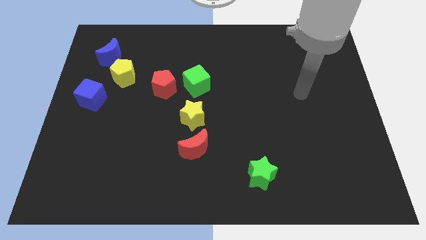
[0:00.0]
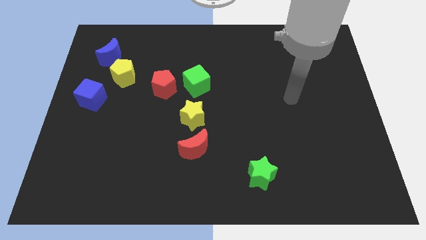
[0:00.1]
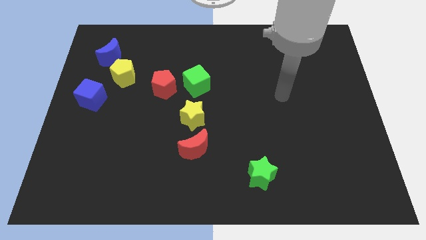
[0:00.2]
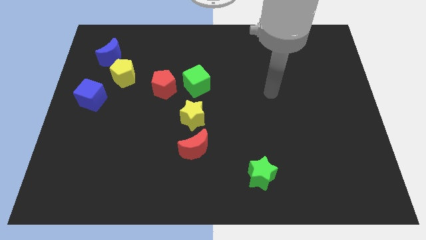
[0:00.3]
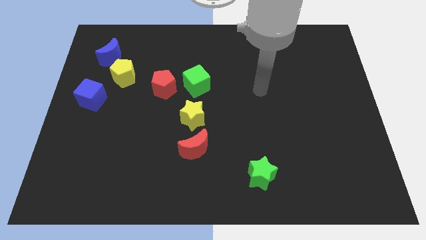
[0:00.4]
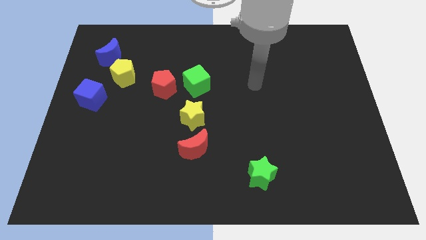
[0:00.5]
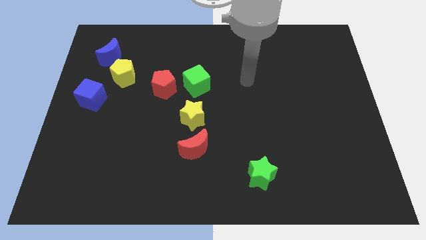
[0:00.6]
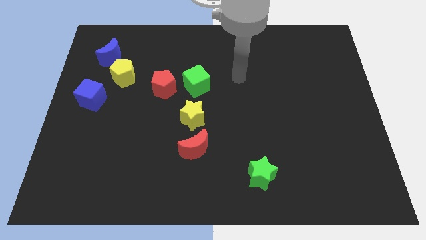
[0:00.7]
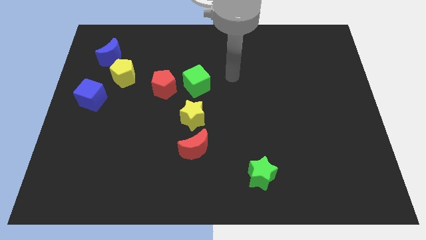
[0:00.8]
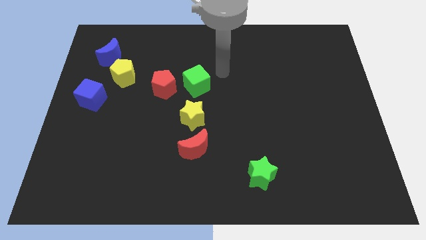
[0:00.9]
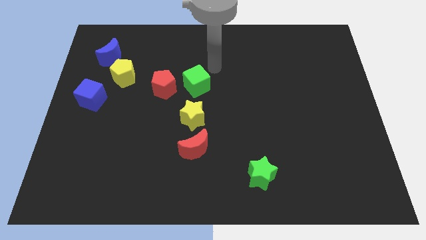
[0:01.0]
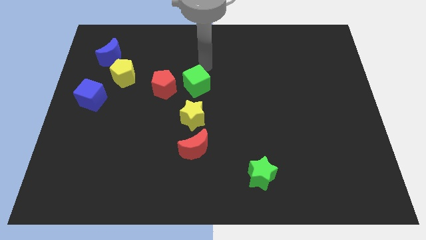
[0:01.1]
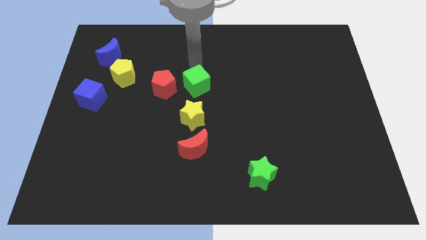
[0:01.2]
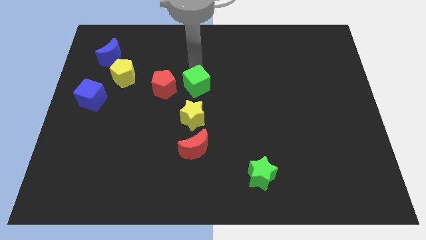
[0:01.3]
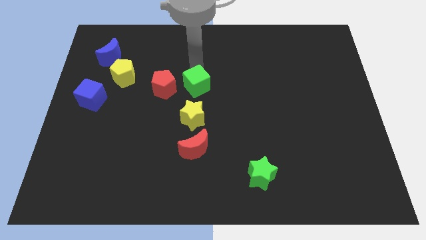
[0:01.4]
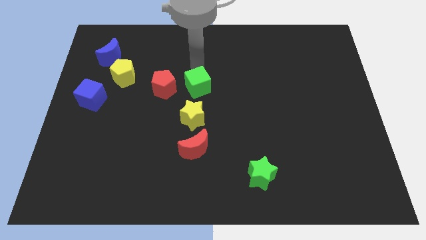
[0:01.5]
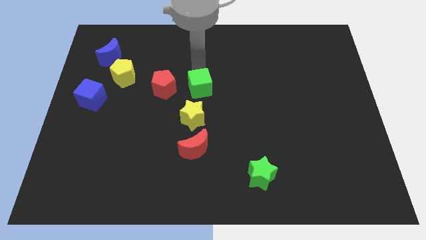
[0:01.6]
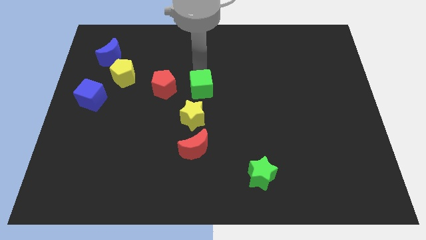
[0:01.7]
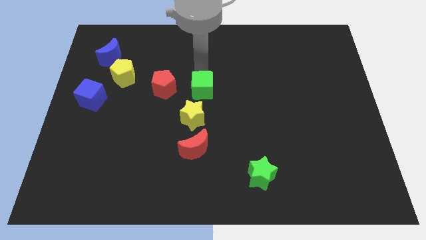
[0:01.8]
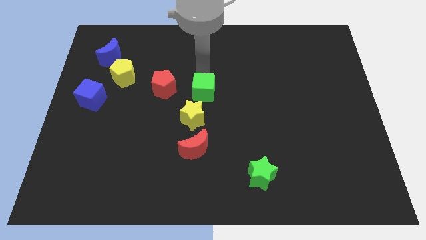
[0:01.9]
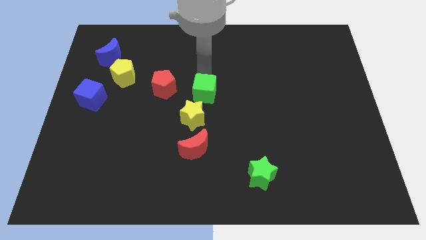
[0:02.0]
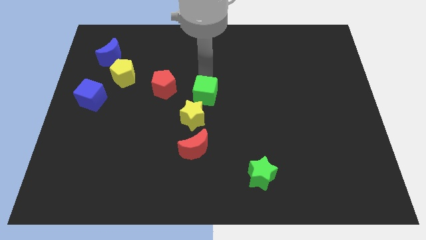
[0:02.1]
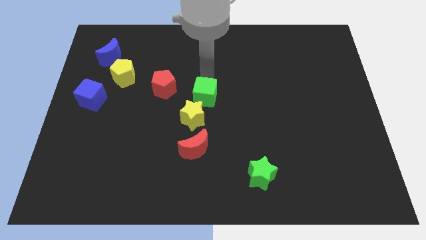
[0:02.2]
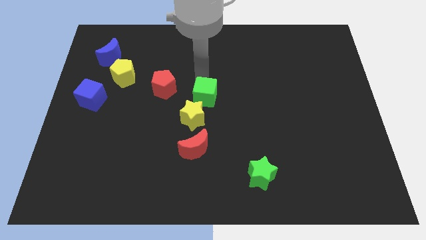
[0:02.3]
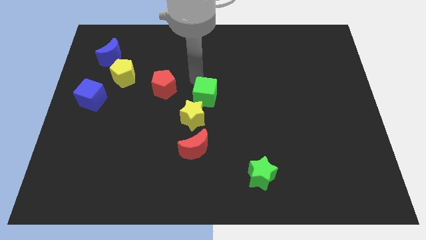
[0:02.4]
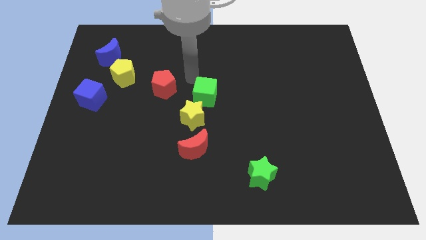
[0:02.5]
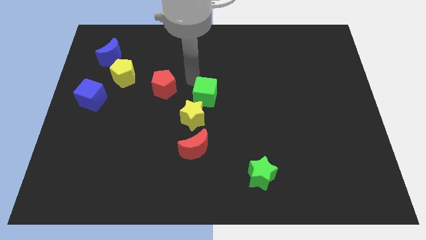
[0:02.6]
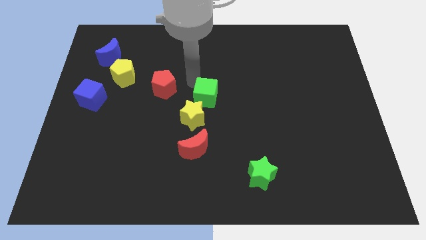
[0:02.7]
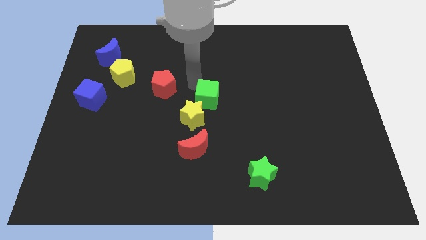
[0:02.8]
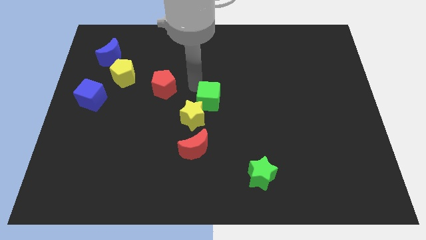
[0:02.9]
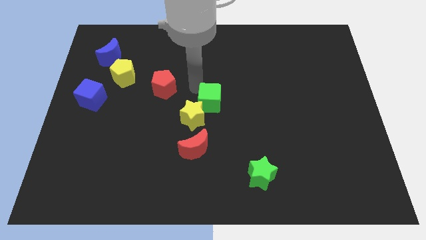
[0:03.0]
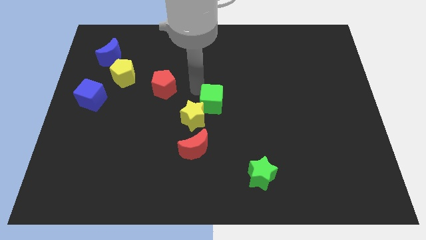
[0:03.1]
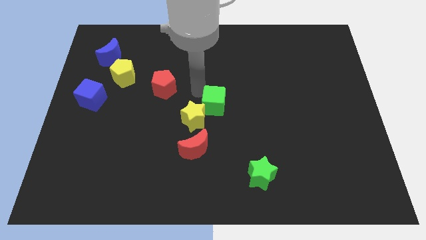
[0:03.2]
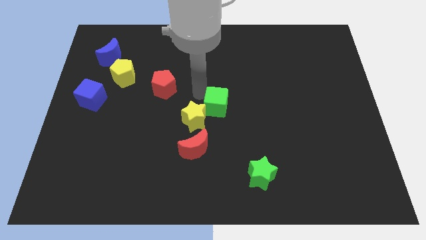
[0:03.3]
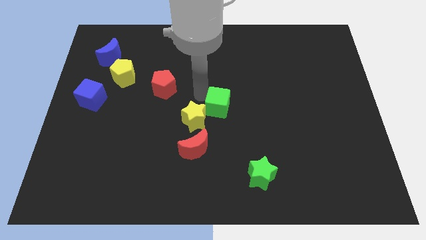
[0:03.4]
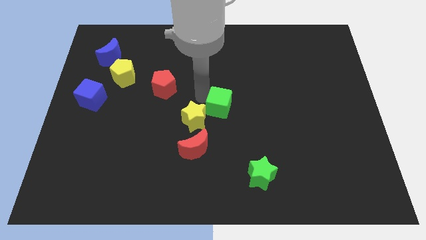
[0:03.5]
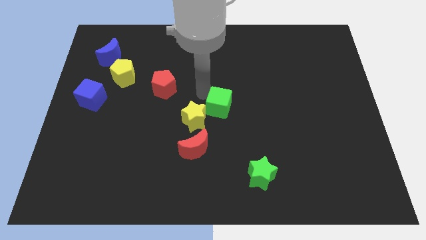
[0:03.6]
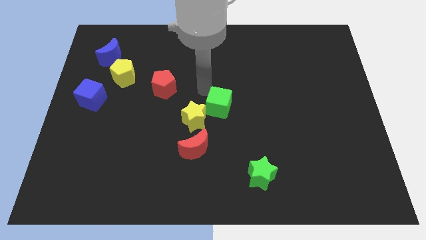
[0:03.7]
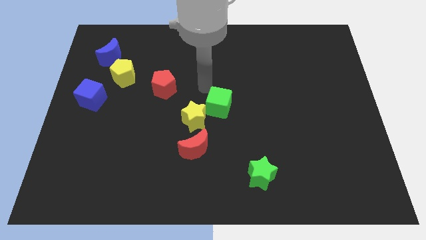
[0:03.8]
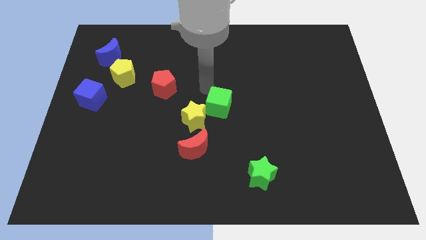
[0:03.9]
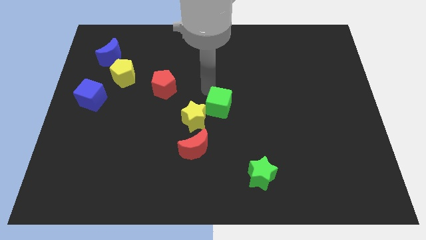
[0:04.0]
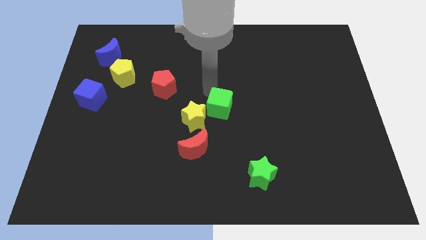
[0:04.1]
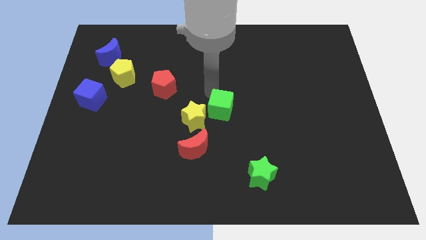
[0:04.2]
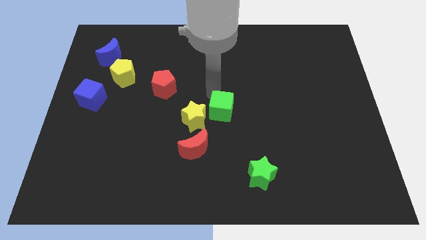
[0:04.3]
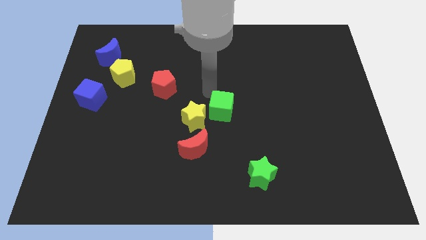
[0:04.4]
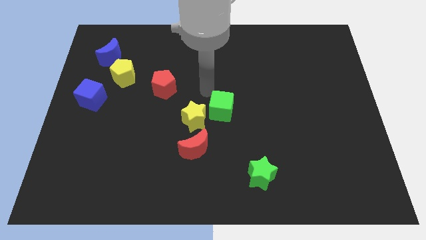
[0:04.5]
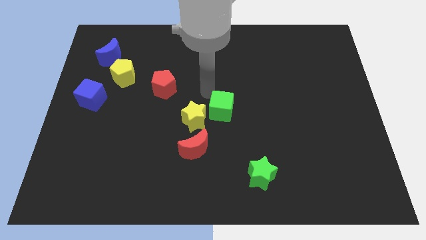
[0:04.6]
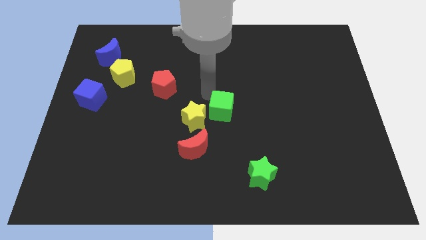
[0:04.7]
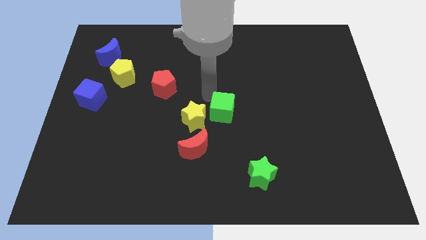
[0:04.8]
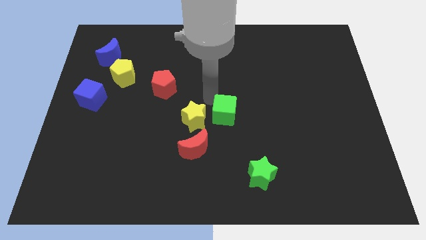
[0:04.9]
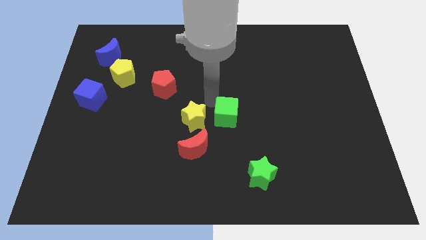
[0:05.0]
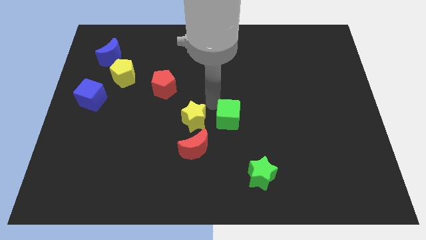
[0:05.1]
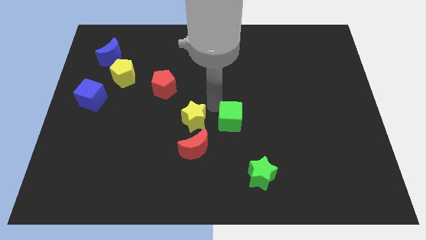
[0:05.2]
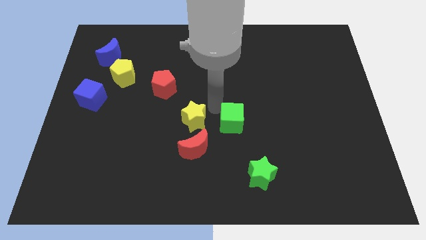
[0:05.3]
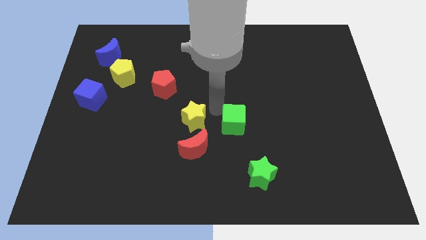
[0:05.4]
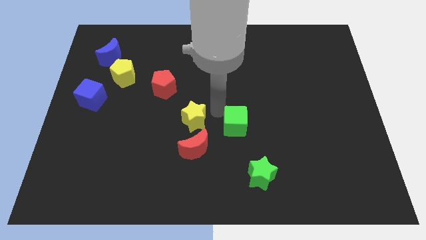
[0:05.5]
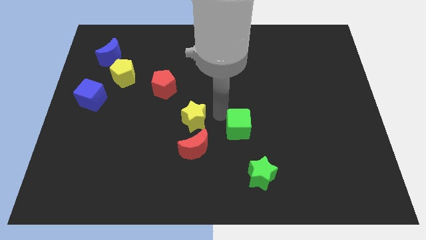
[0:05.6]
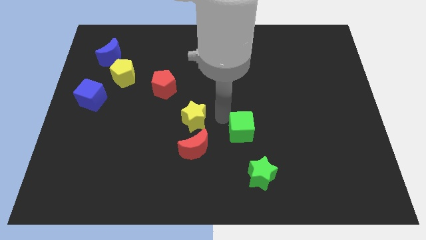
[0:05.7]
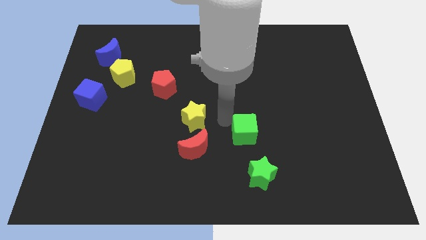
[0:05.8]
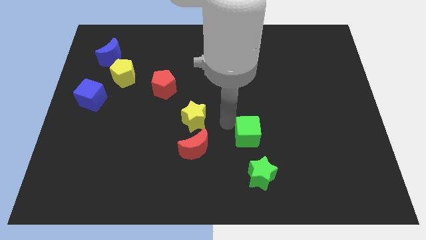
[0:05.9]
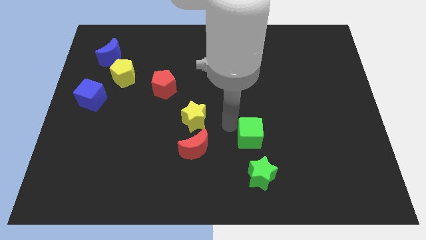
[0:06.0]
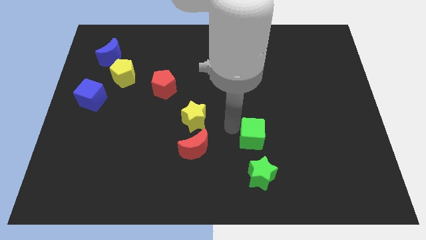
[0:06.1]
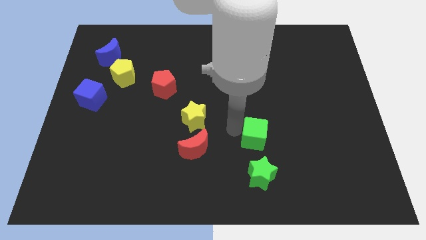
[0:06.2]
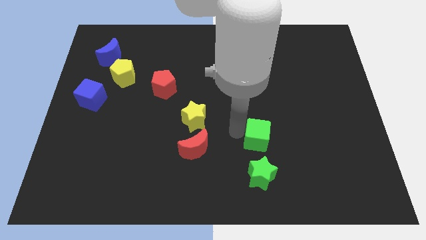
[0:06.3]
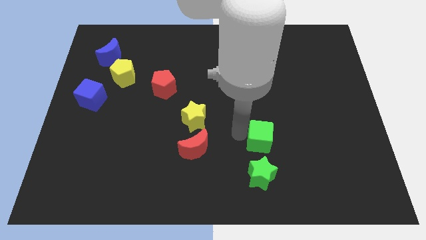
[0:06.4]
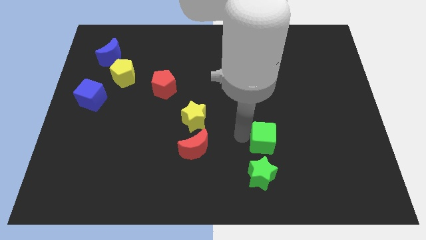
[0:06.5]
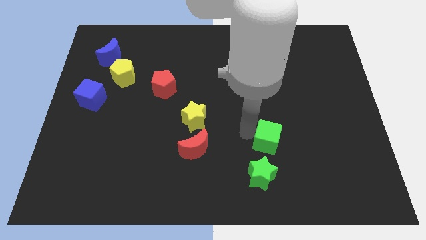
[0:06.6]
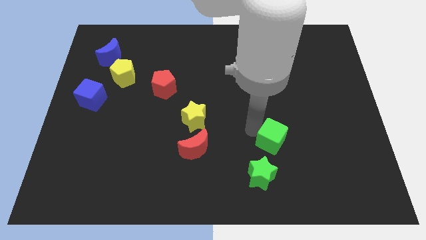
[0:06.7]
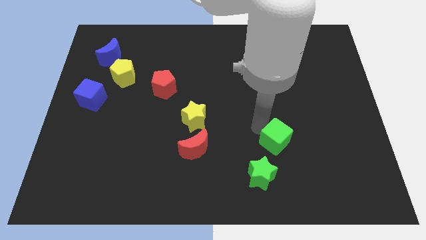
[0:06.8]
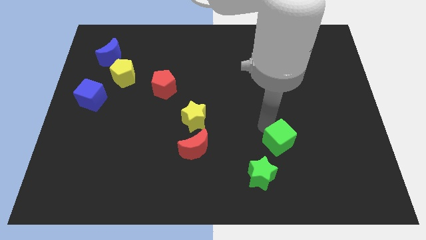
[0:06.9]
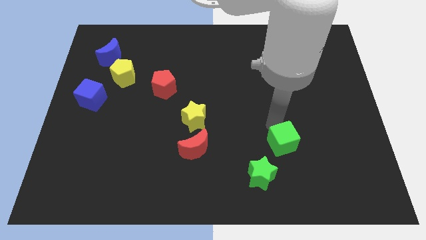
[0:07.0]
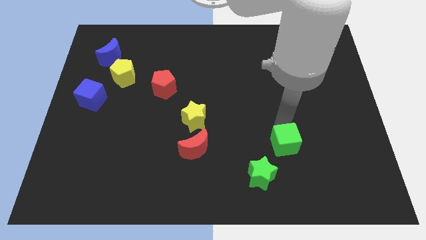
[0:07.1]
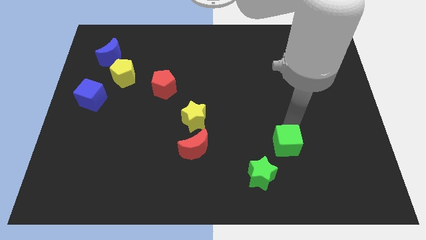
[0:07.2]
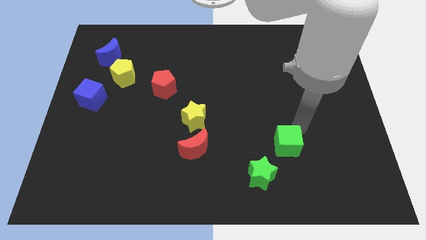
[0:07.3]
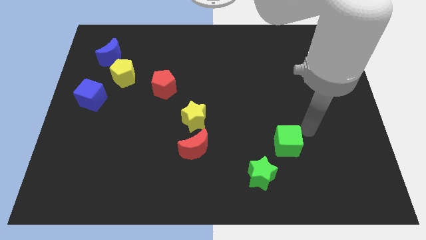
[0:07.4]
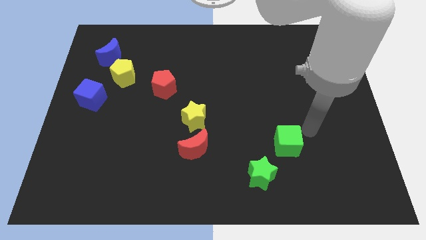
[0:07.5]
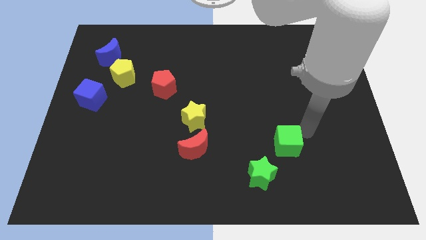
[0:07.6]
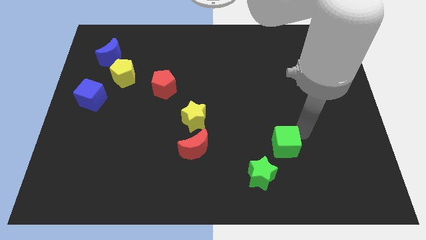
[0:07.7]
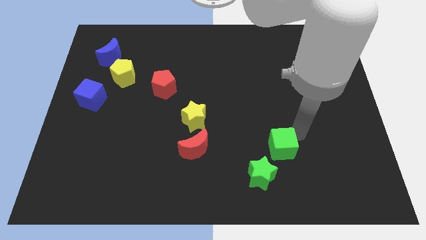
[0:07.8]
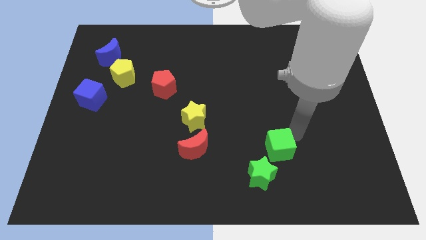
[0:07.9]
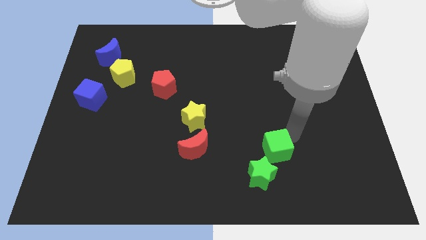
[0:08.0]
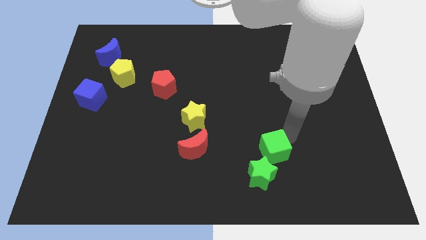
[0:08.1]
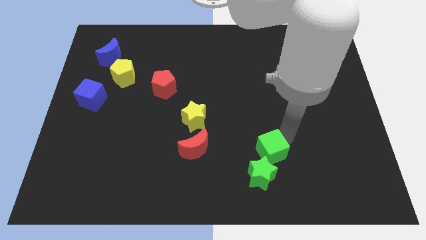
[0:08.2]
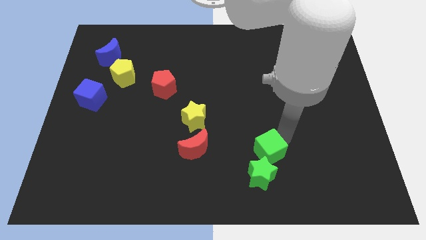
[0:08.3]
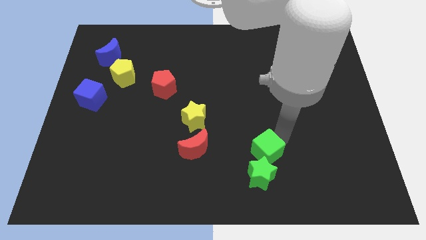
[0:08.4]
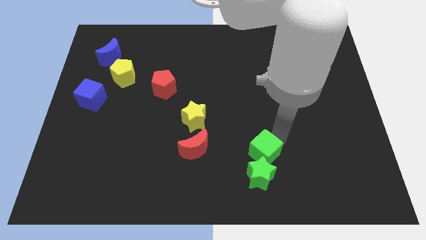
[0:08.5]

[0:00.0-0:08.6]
put the green cube to the green star
